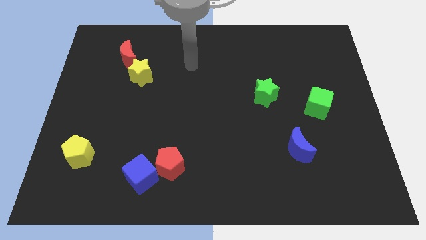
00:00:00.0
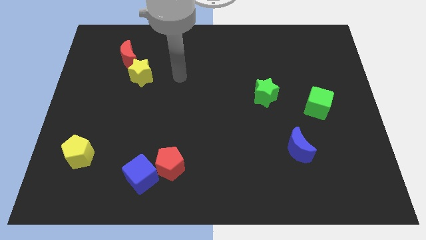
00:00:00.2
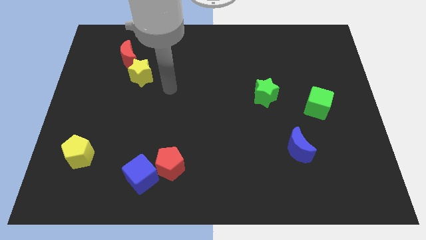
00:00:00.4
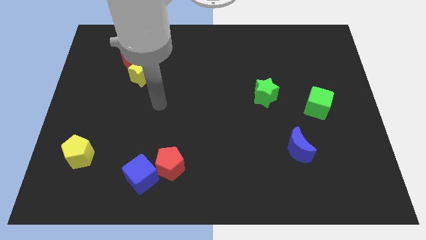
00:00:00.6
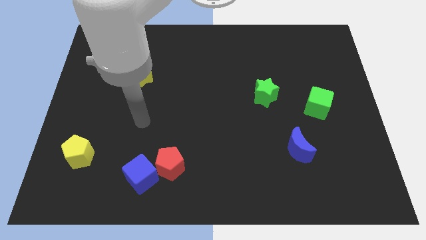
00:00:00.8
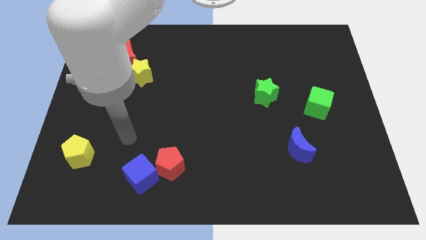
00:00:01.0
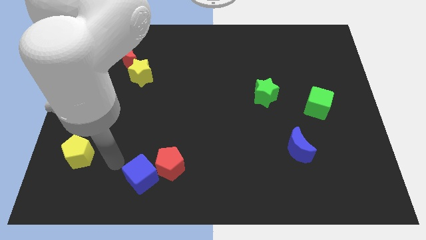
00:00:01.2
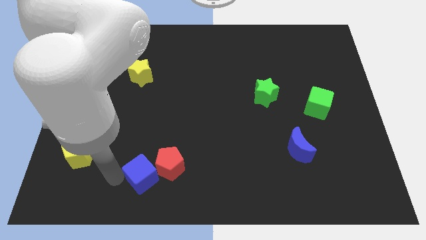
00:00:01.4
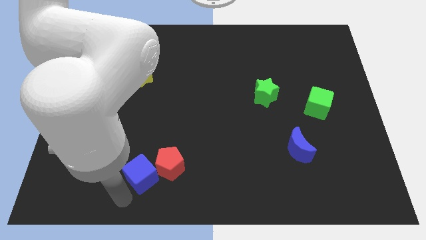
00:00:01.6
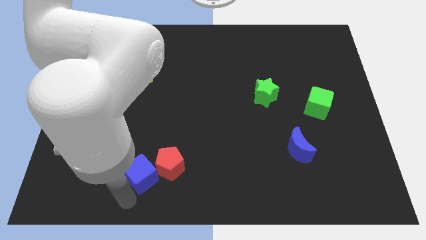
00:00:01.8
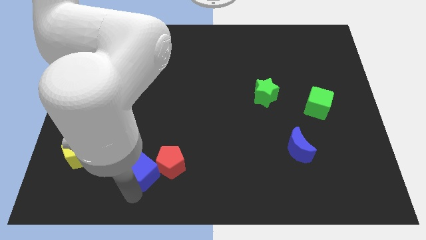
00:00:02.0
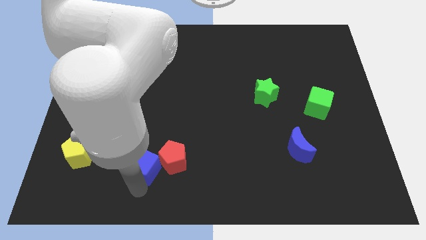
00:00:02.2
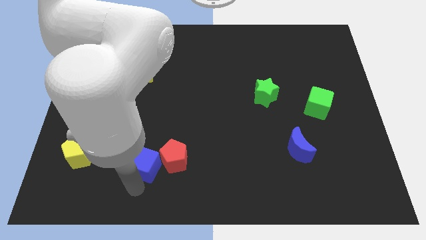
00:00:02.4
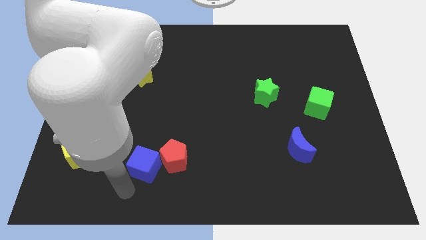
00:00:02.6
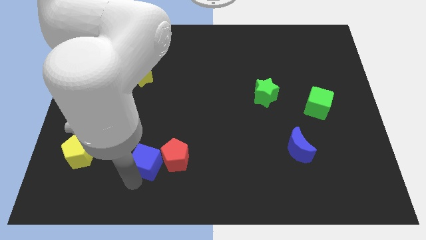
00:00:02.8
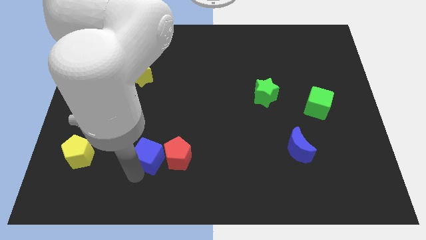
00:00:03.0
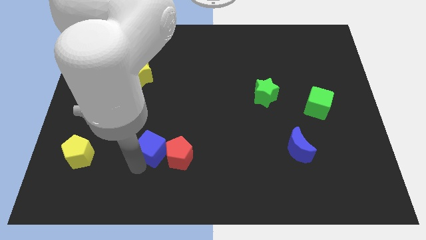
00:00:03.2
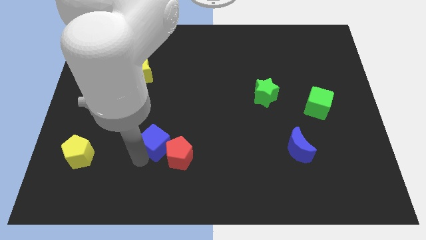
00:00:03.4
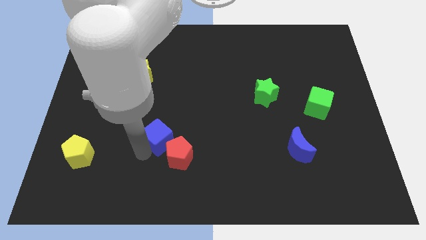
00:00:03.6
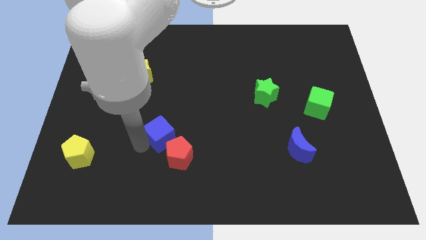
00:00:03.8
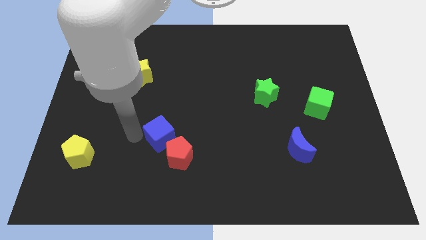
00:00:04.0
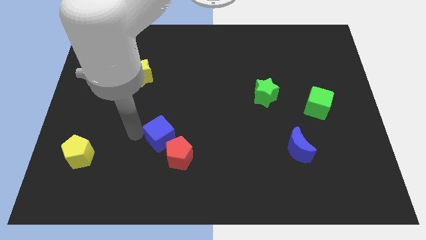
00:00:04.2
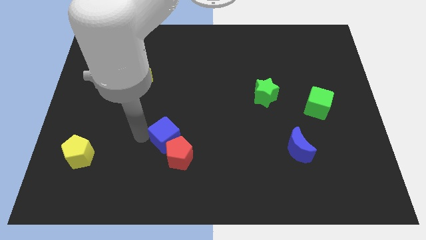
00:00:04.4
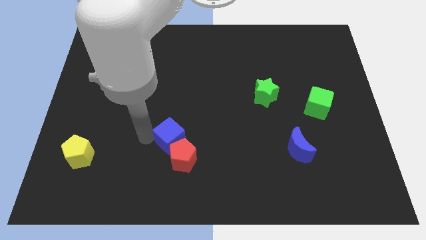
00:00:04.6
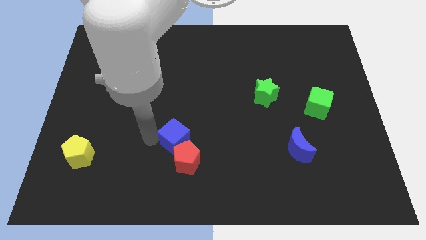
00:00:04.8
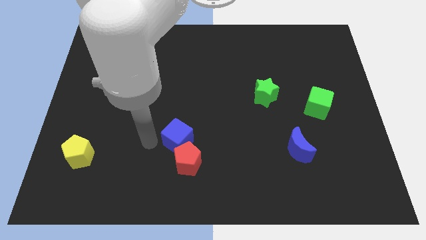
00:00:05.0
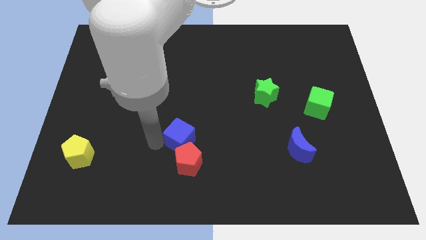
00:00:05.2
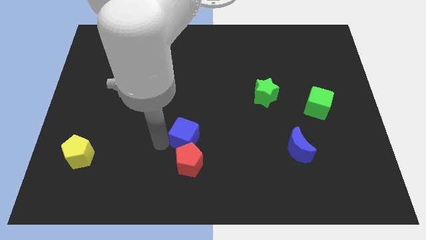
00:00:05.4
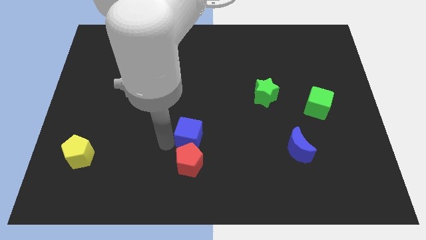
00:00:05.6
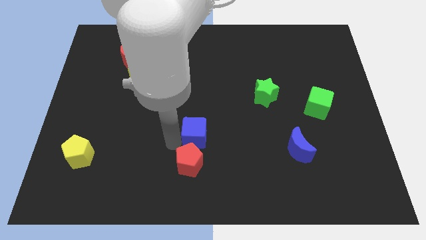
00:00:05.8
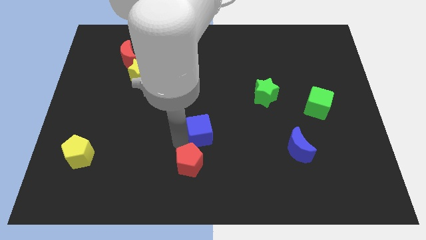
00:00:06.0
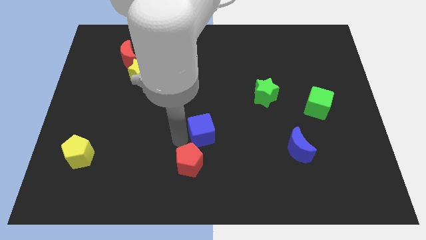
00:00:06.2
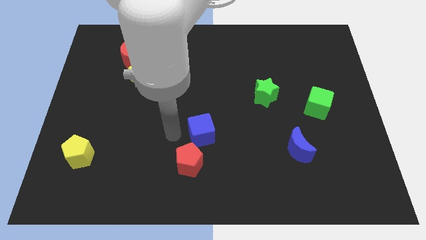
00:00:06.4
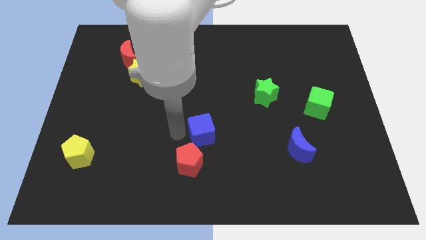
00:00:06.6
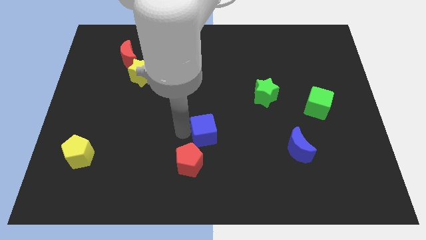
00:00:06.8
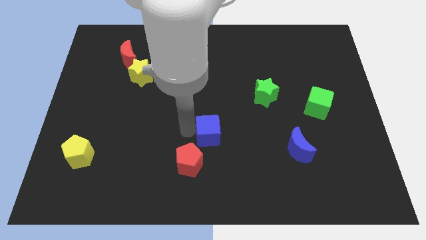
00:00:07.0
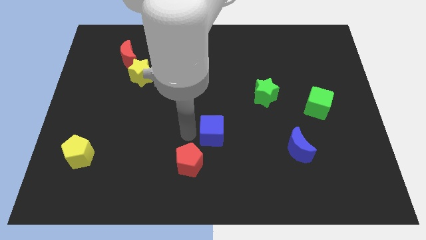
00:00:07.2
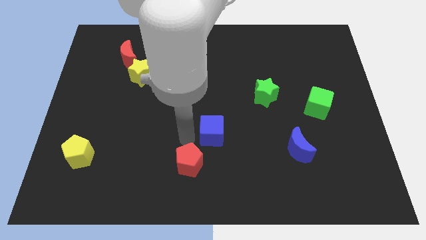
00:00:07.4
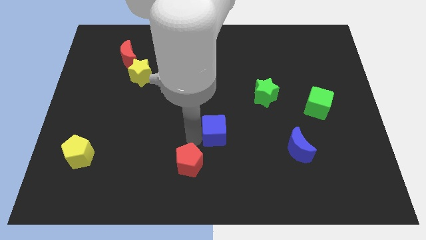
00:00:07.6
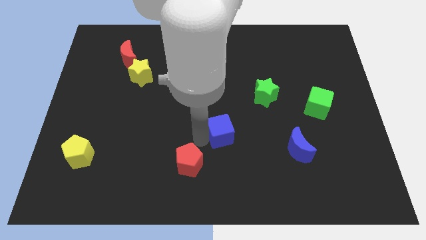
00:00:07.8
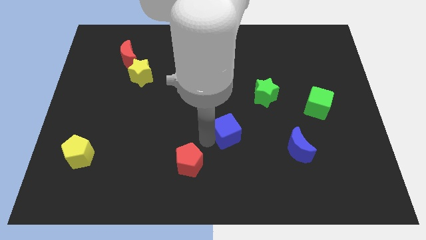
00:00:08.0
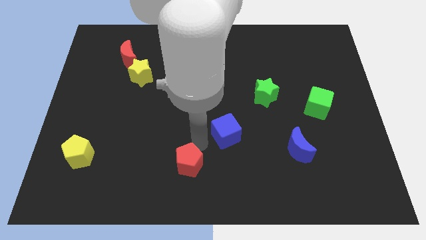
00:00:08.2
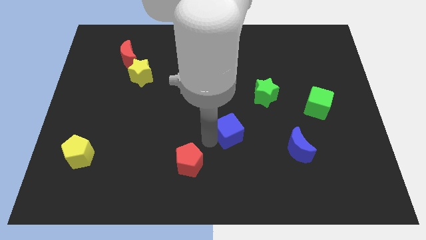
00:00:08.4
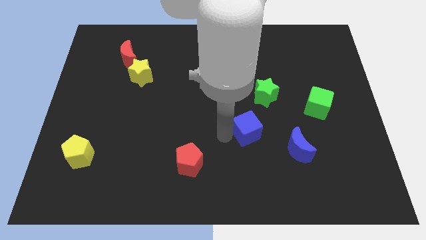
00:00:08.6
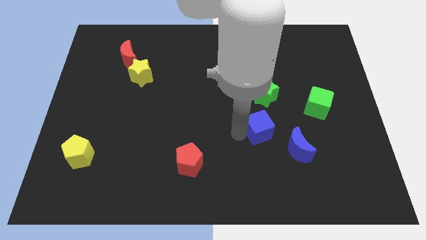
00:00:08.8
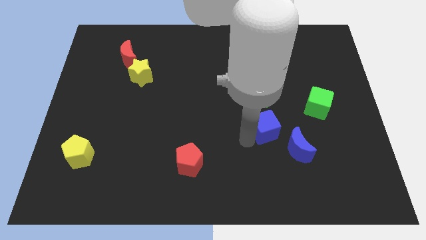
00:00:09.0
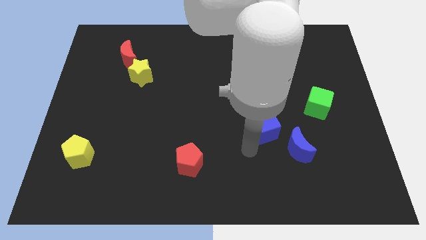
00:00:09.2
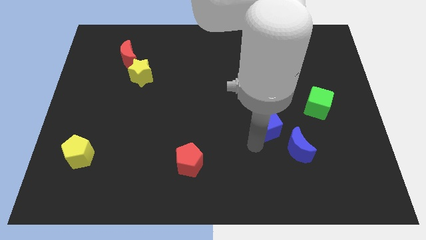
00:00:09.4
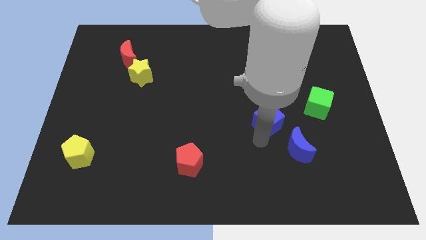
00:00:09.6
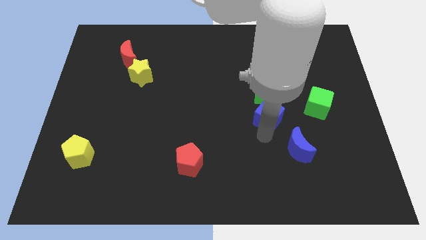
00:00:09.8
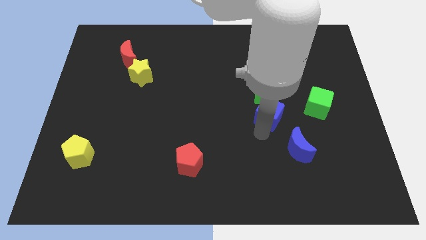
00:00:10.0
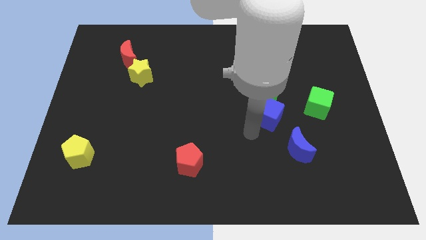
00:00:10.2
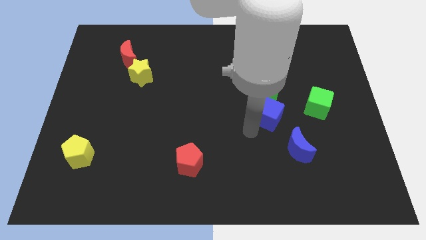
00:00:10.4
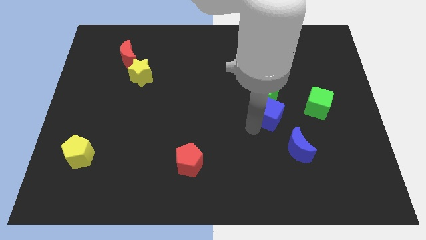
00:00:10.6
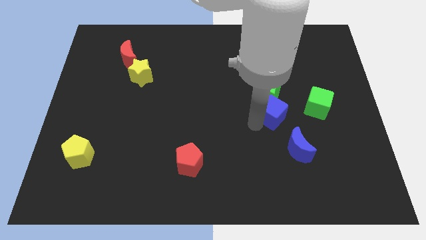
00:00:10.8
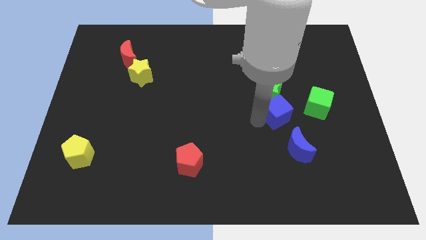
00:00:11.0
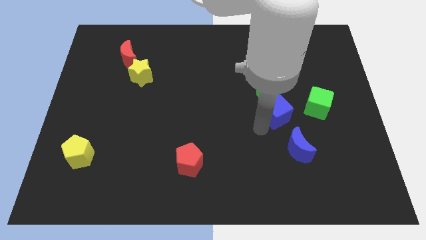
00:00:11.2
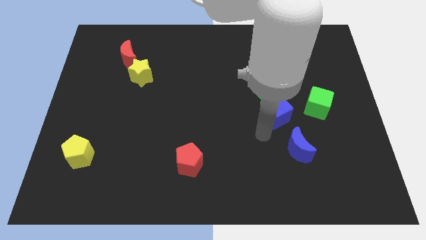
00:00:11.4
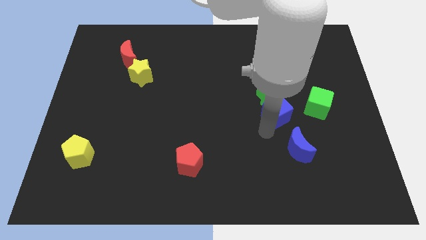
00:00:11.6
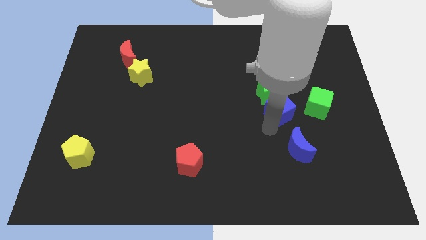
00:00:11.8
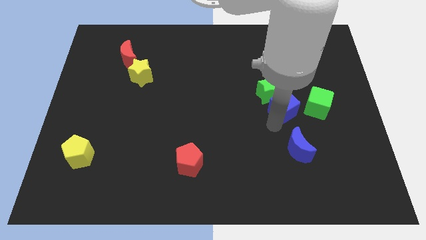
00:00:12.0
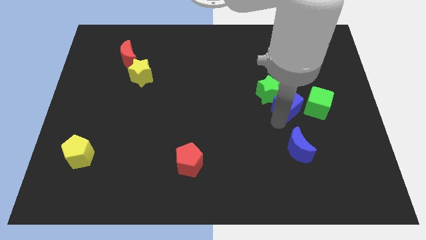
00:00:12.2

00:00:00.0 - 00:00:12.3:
push the blue cube right of the green star

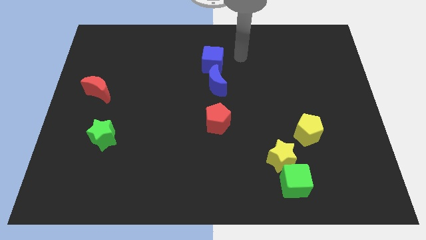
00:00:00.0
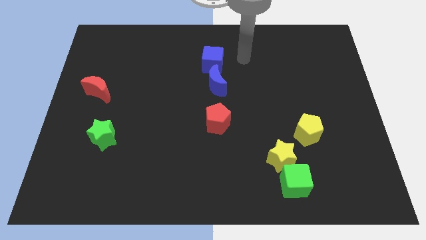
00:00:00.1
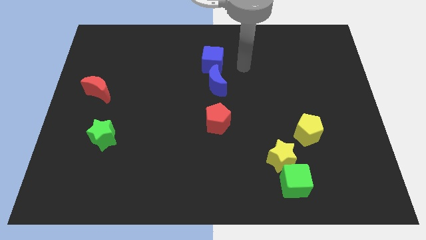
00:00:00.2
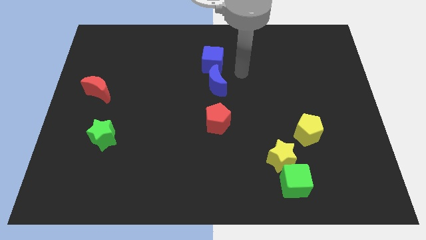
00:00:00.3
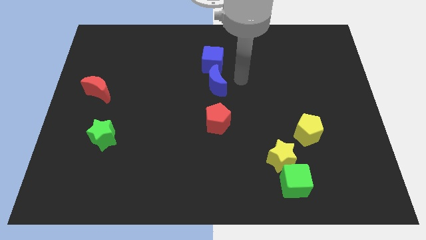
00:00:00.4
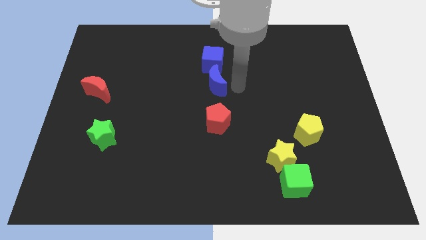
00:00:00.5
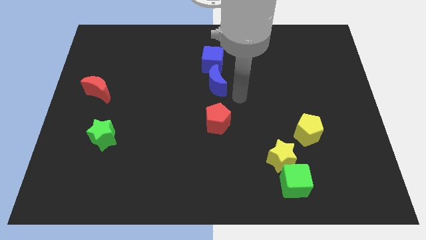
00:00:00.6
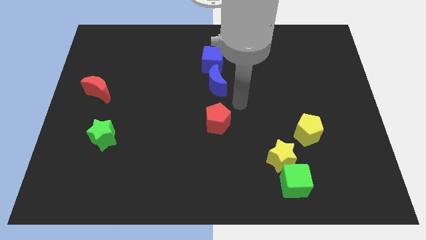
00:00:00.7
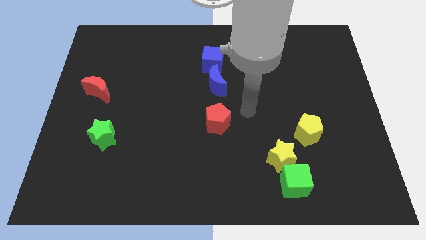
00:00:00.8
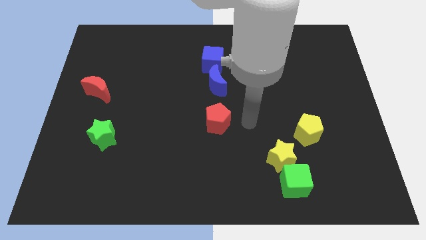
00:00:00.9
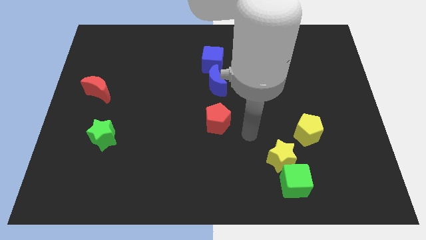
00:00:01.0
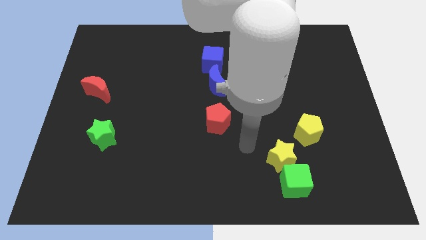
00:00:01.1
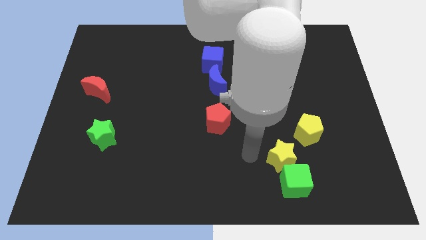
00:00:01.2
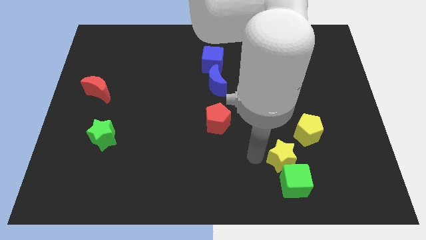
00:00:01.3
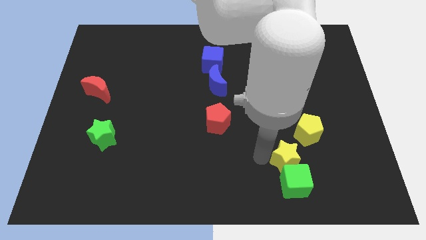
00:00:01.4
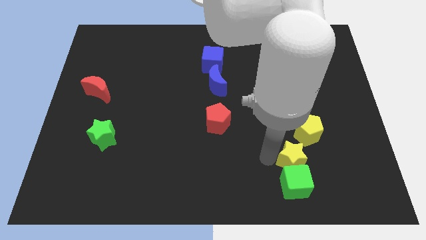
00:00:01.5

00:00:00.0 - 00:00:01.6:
slide the yellow star to the bottom side of the yellow pentagon
